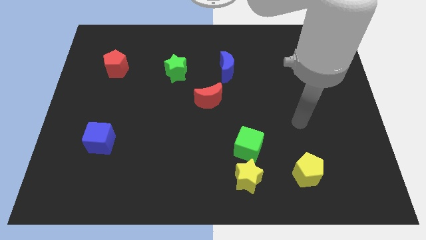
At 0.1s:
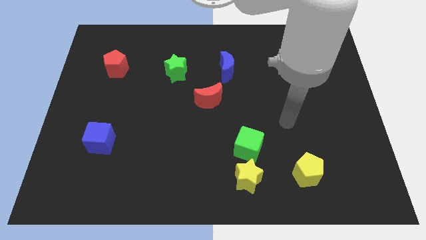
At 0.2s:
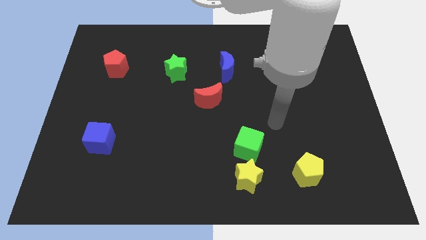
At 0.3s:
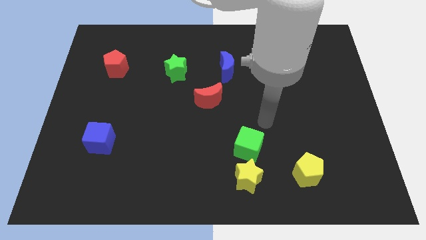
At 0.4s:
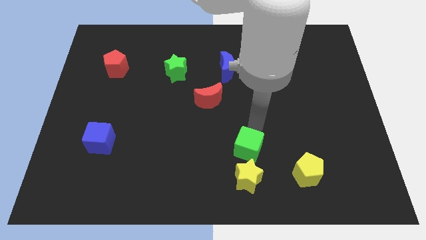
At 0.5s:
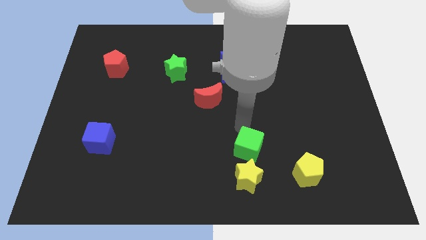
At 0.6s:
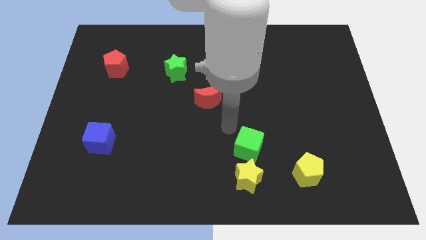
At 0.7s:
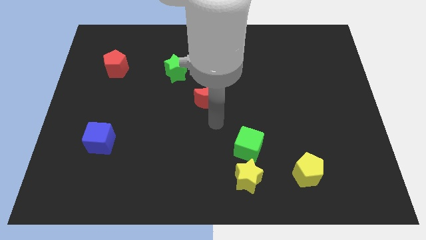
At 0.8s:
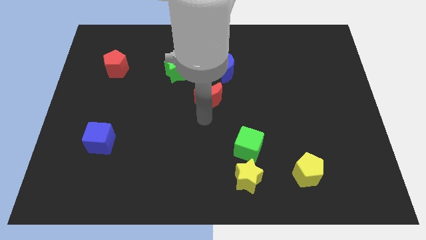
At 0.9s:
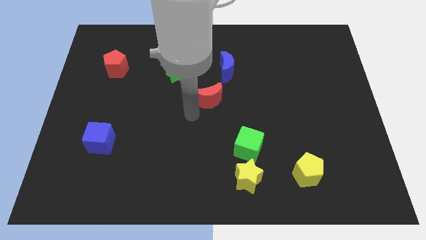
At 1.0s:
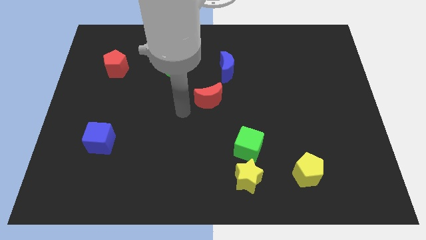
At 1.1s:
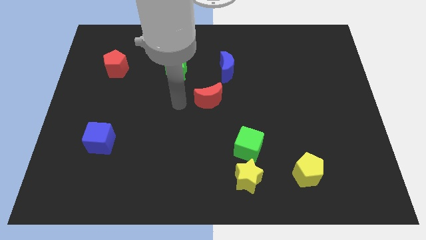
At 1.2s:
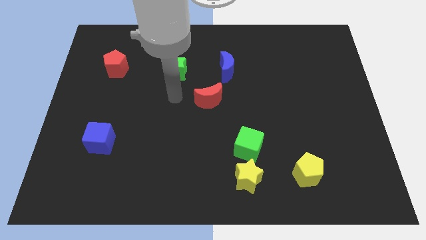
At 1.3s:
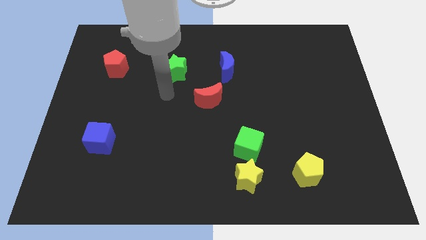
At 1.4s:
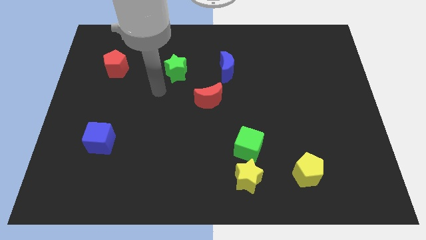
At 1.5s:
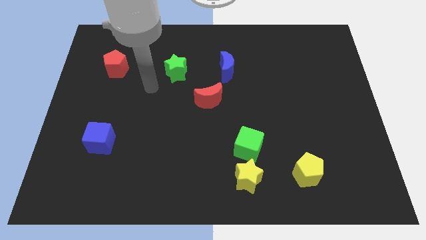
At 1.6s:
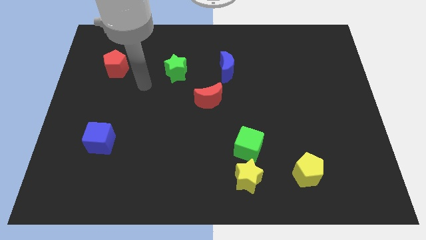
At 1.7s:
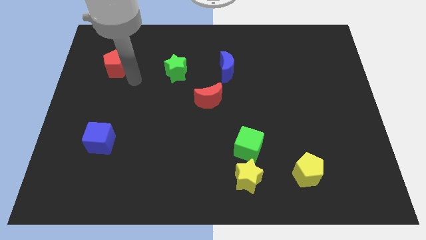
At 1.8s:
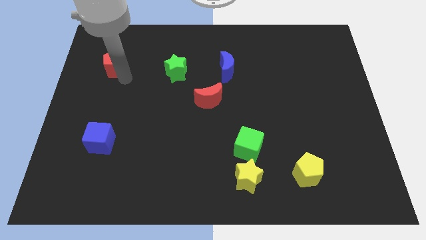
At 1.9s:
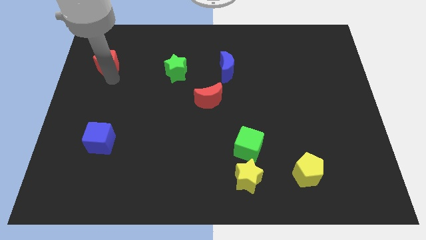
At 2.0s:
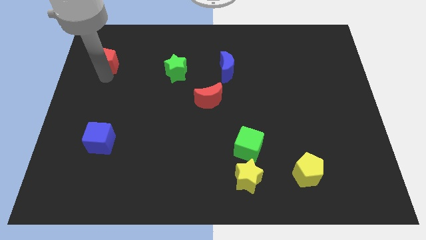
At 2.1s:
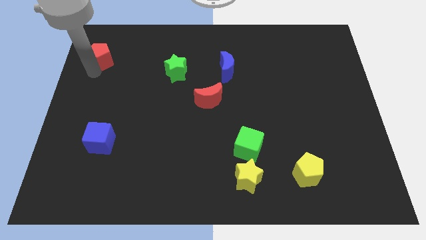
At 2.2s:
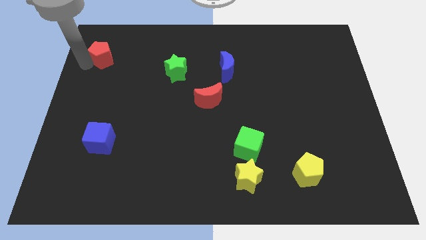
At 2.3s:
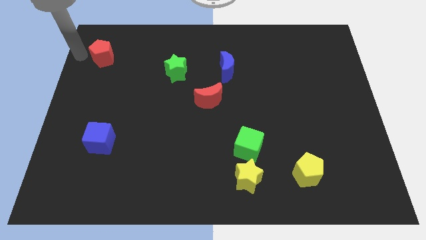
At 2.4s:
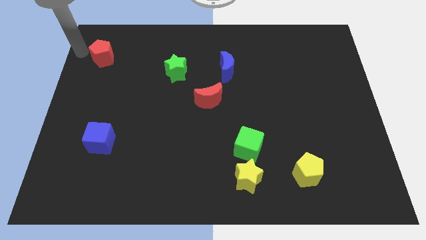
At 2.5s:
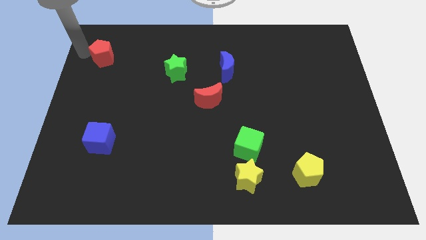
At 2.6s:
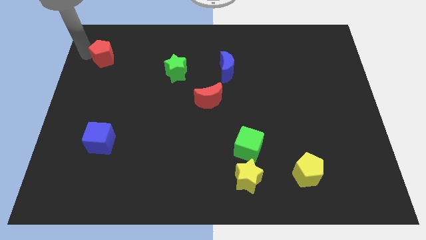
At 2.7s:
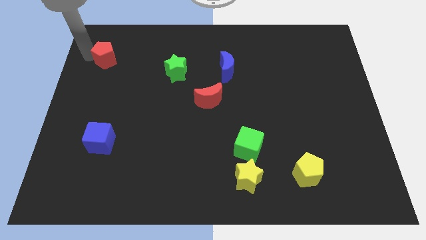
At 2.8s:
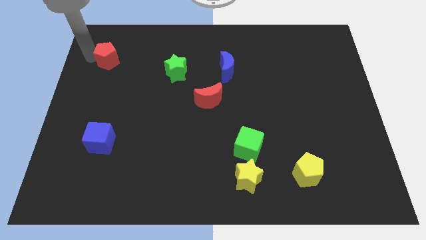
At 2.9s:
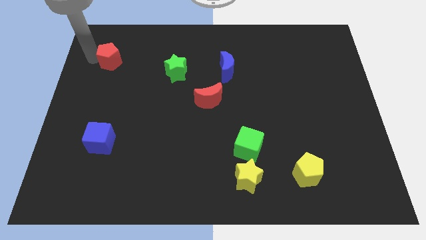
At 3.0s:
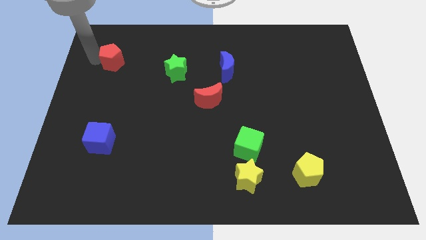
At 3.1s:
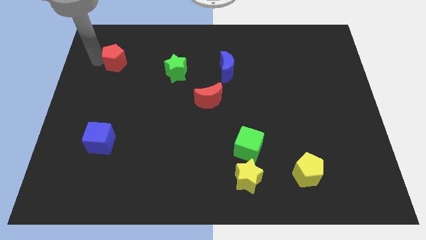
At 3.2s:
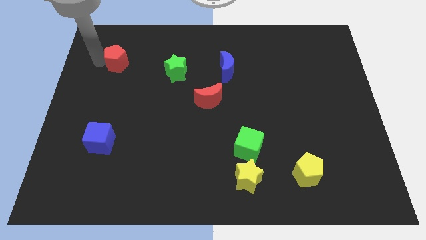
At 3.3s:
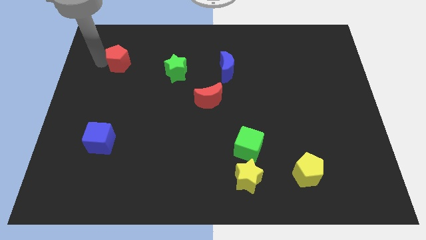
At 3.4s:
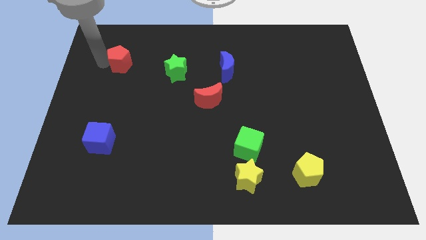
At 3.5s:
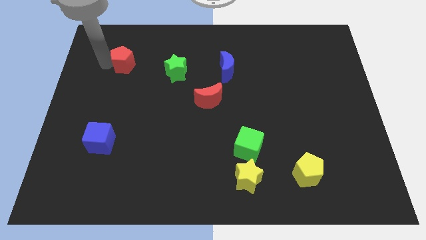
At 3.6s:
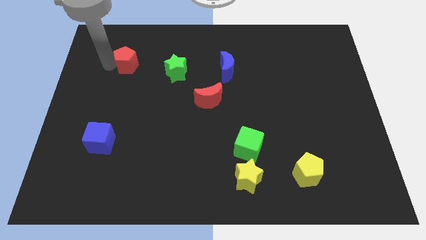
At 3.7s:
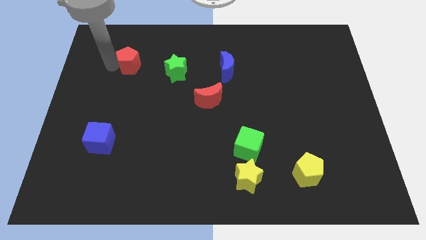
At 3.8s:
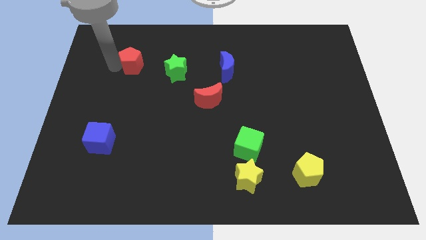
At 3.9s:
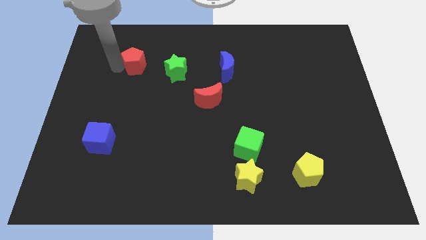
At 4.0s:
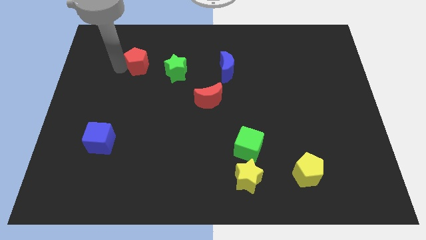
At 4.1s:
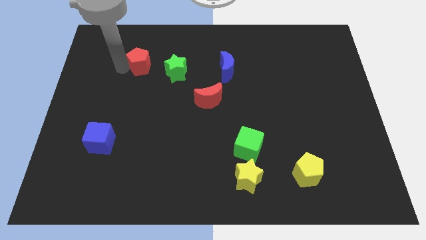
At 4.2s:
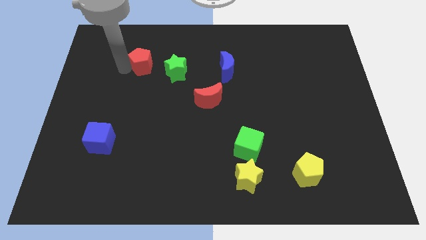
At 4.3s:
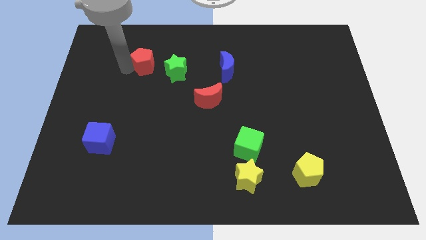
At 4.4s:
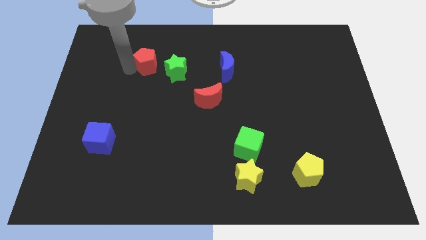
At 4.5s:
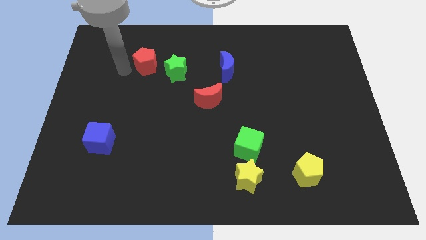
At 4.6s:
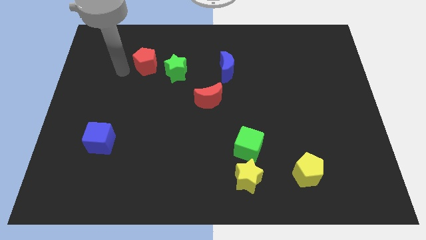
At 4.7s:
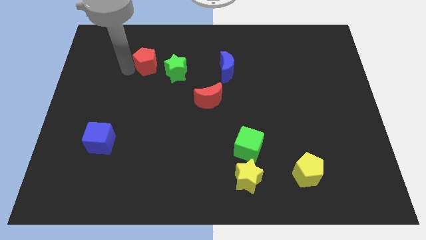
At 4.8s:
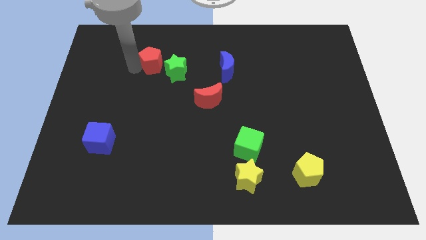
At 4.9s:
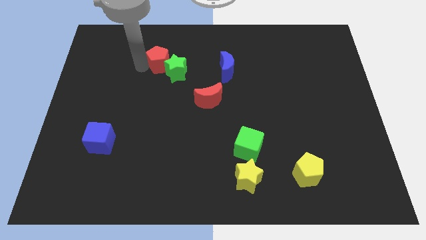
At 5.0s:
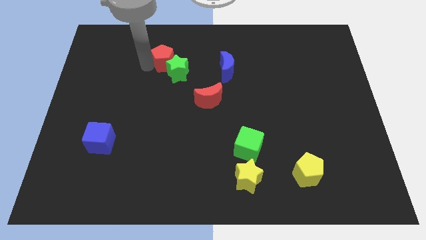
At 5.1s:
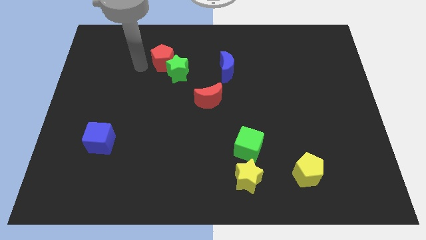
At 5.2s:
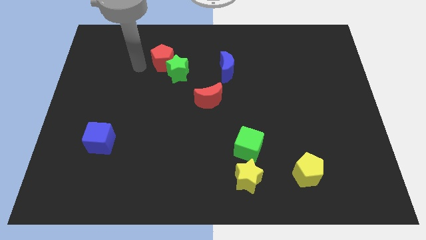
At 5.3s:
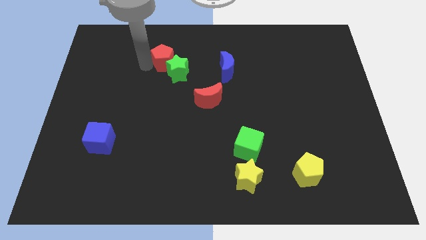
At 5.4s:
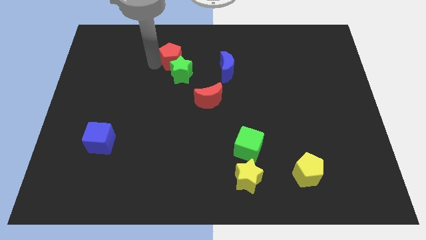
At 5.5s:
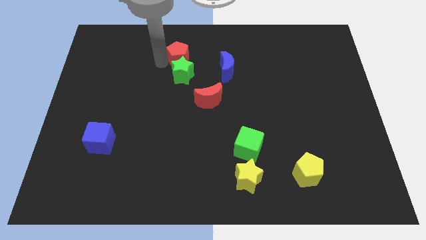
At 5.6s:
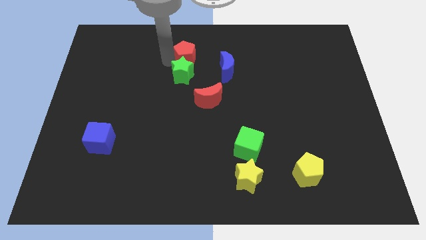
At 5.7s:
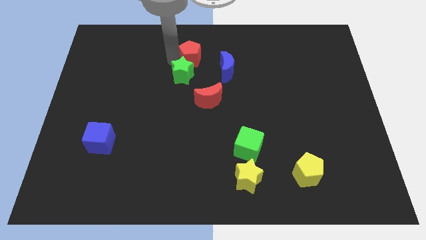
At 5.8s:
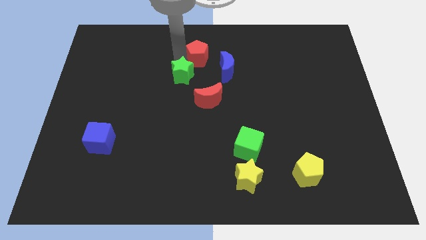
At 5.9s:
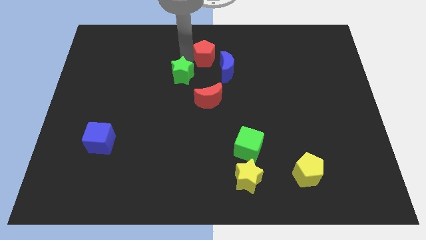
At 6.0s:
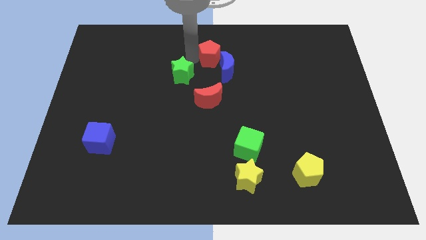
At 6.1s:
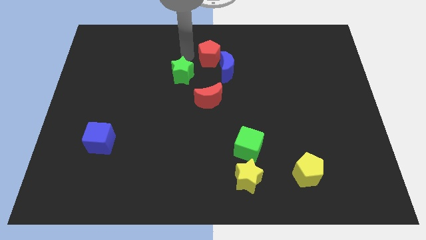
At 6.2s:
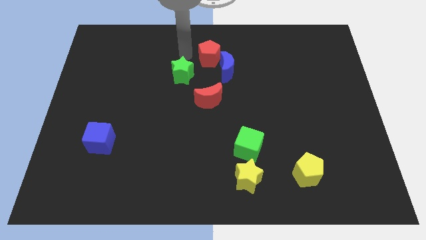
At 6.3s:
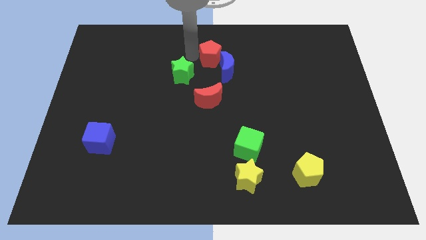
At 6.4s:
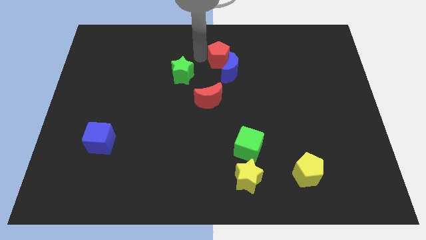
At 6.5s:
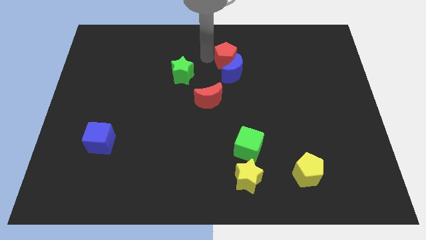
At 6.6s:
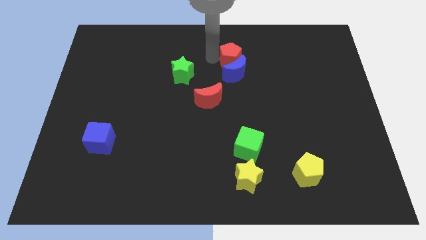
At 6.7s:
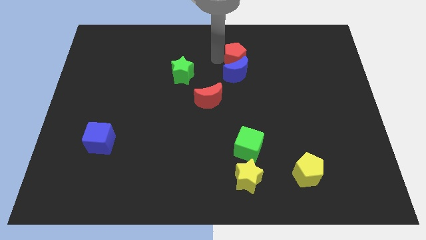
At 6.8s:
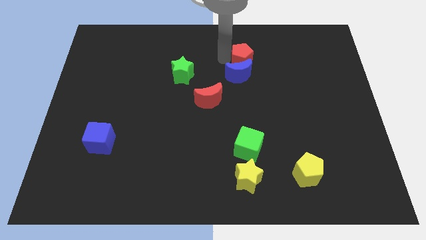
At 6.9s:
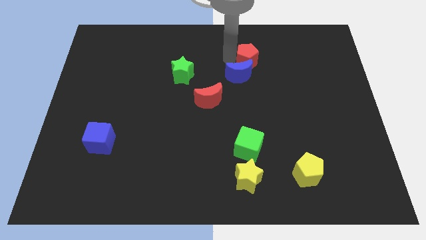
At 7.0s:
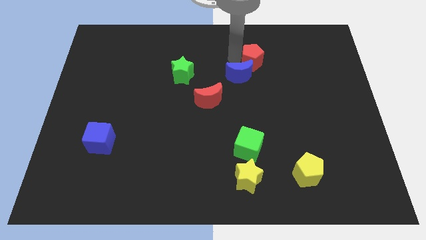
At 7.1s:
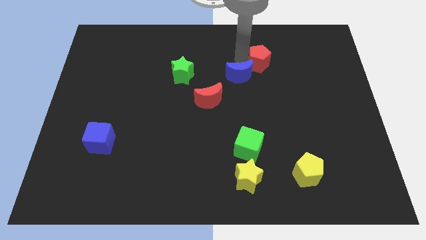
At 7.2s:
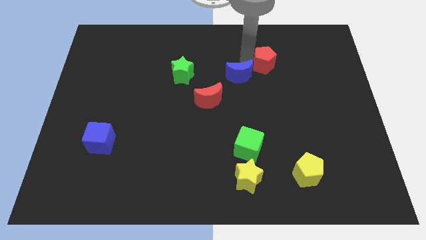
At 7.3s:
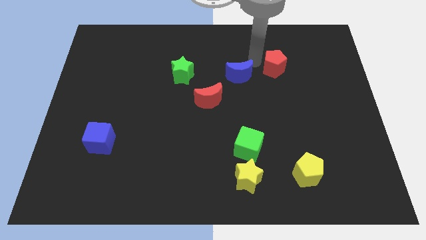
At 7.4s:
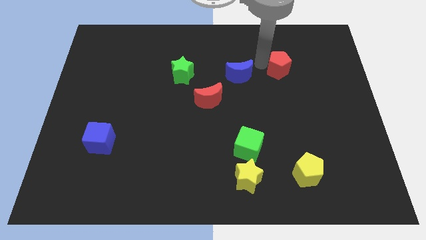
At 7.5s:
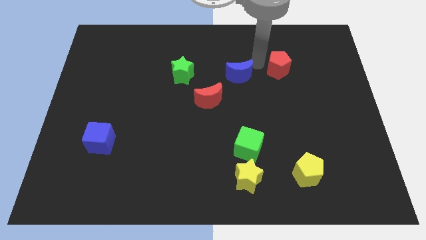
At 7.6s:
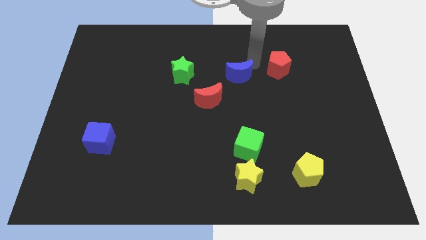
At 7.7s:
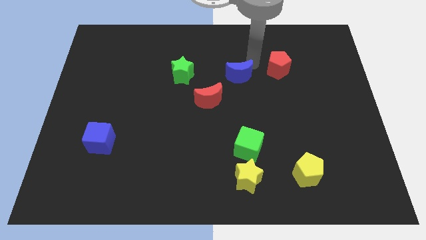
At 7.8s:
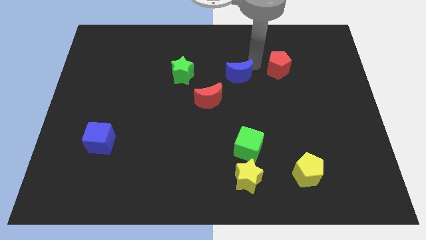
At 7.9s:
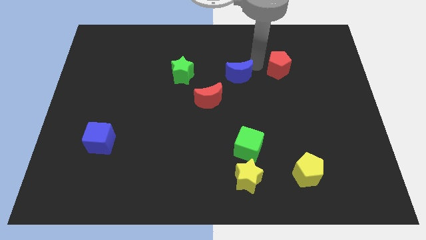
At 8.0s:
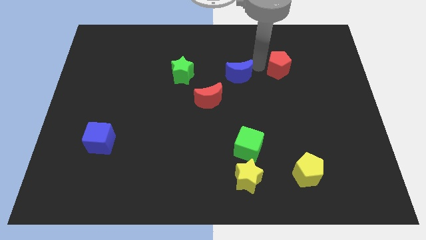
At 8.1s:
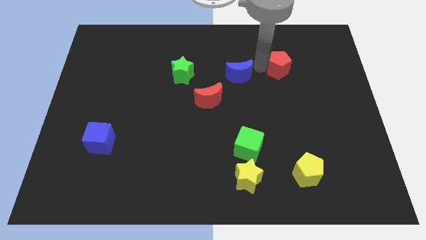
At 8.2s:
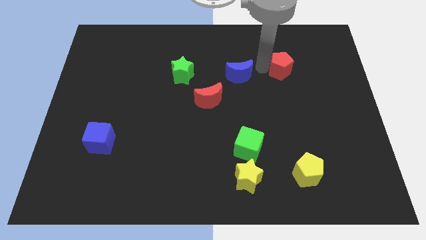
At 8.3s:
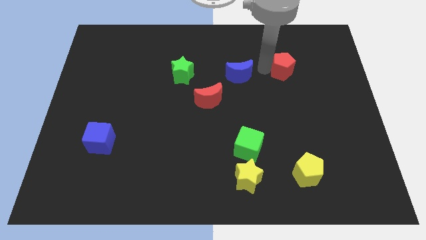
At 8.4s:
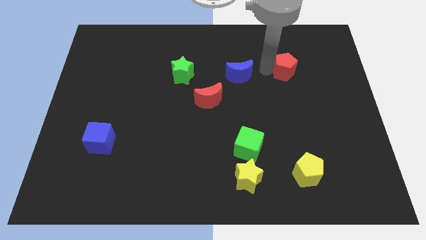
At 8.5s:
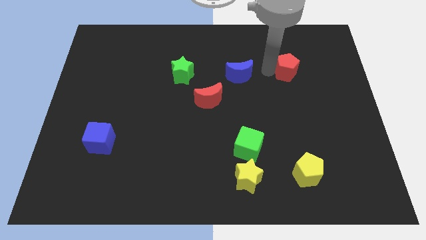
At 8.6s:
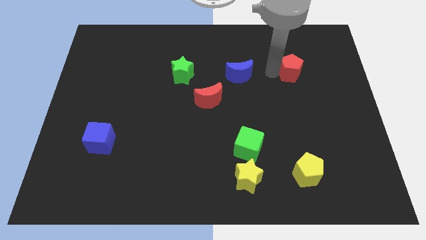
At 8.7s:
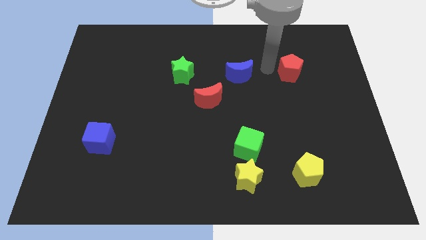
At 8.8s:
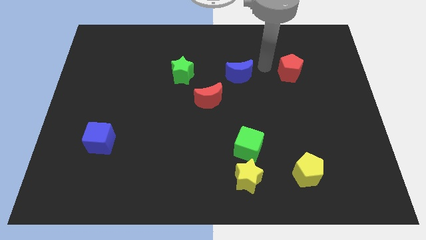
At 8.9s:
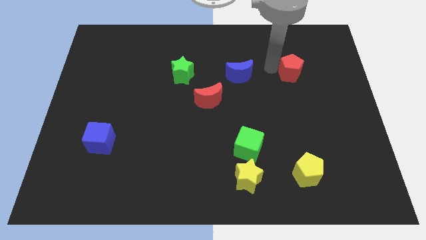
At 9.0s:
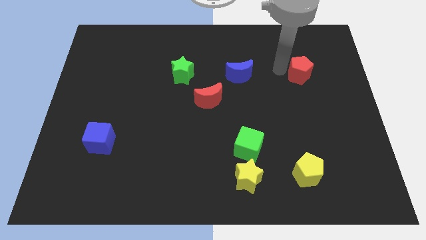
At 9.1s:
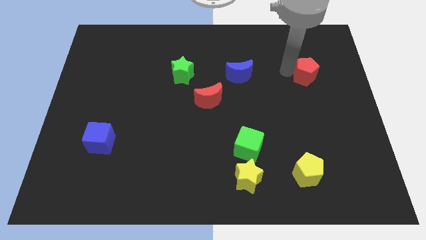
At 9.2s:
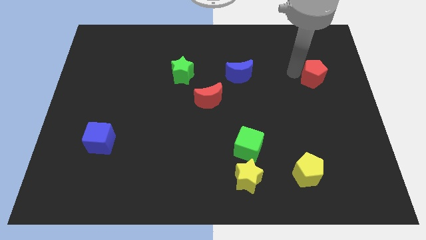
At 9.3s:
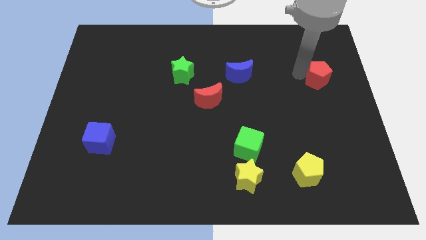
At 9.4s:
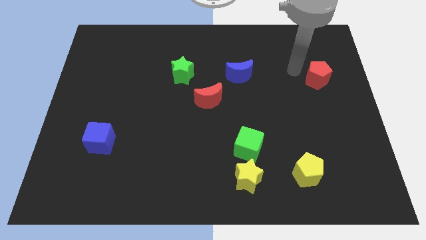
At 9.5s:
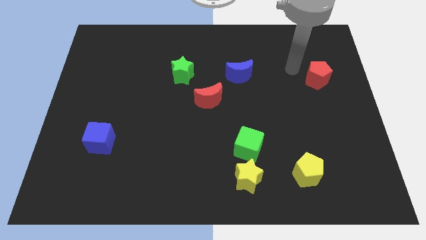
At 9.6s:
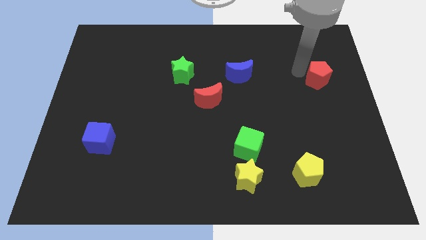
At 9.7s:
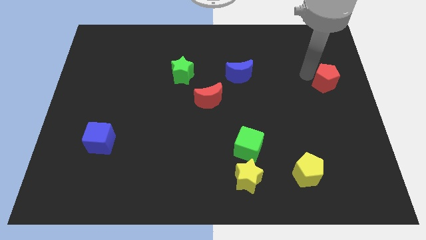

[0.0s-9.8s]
move the red pentagon to the right side of the board
